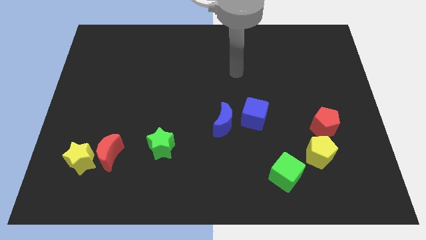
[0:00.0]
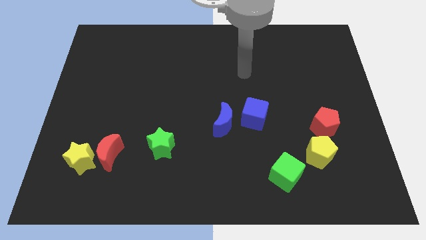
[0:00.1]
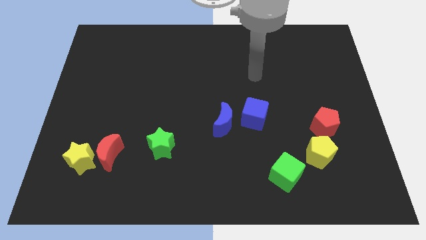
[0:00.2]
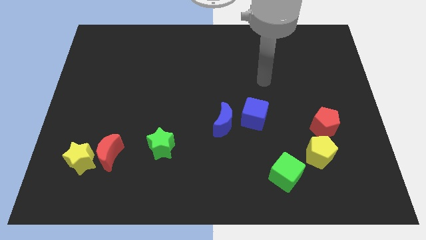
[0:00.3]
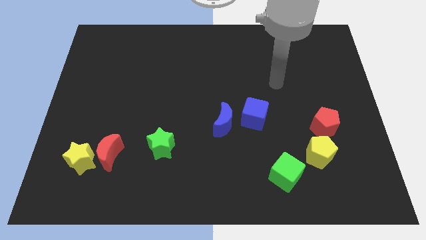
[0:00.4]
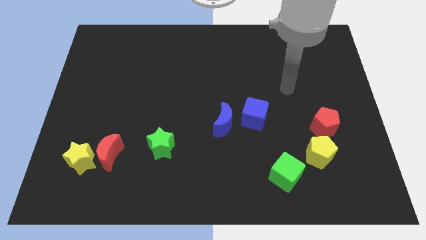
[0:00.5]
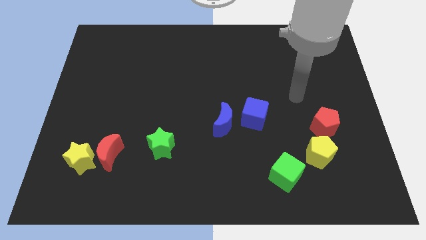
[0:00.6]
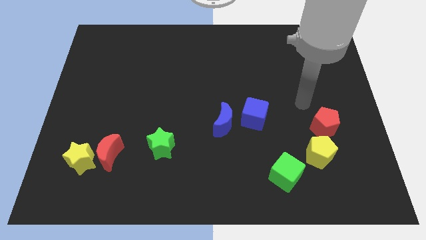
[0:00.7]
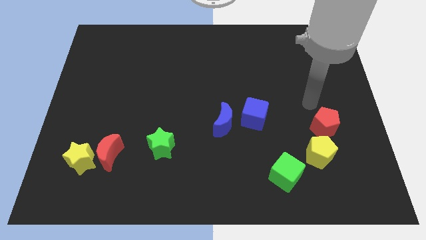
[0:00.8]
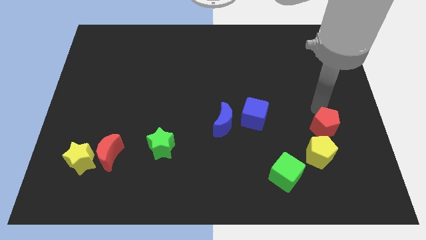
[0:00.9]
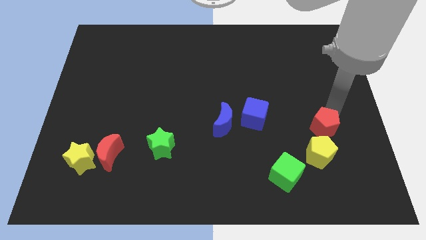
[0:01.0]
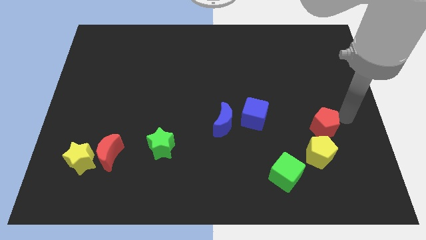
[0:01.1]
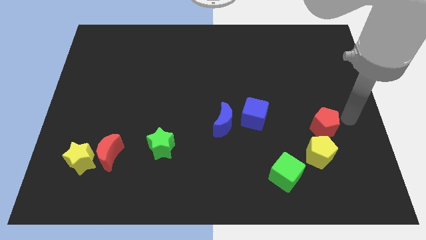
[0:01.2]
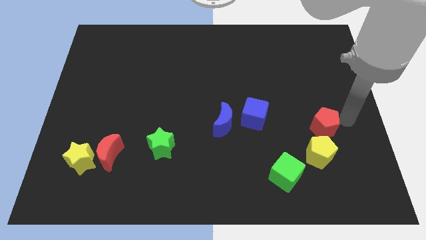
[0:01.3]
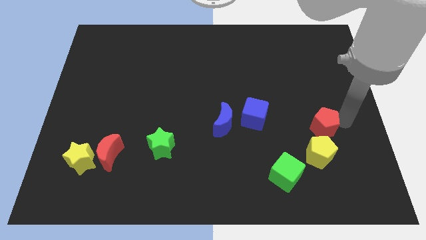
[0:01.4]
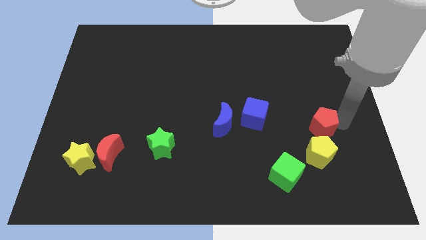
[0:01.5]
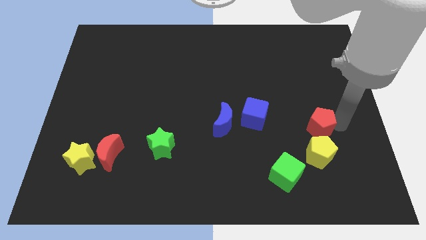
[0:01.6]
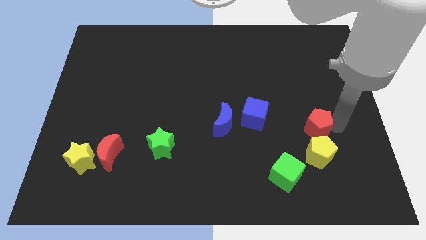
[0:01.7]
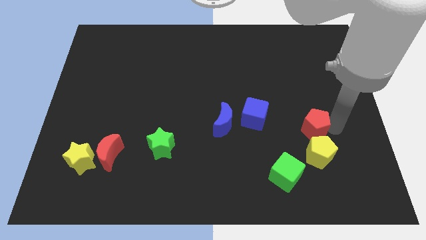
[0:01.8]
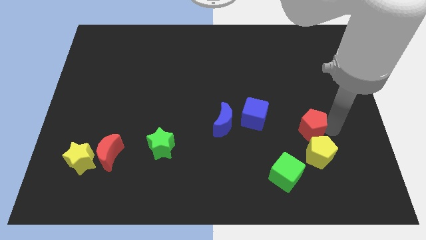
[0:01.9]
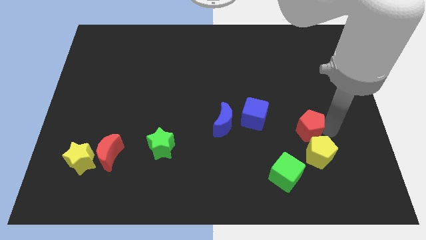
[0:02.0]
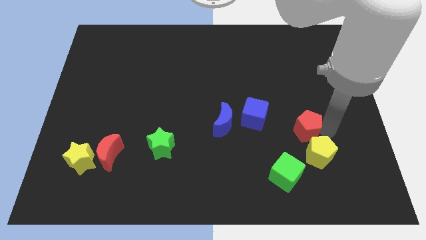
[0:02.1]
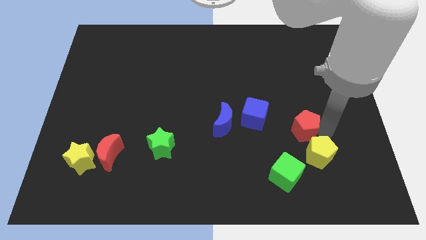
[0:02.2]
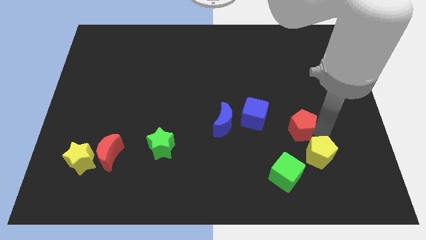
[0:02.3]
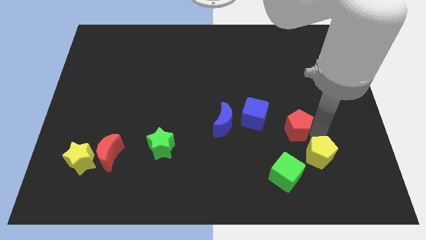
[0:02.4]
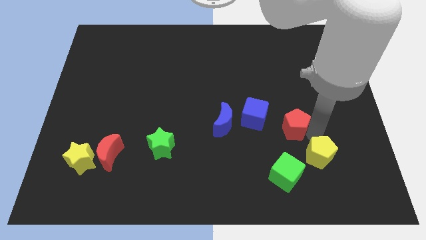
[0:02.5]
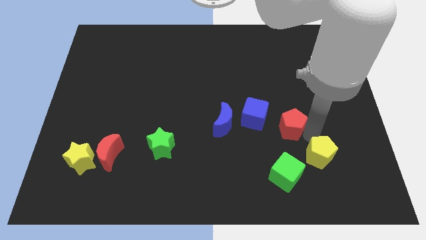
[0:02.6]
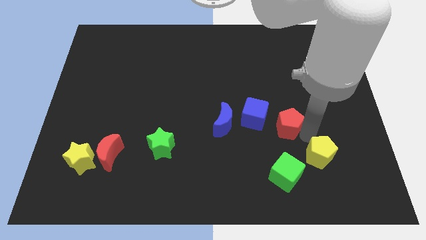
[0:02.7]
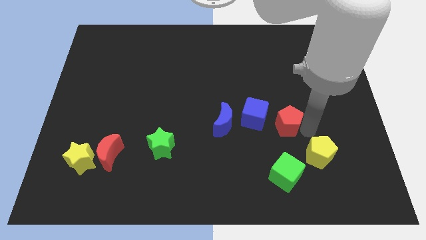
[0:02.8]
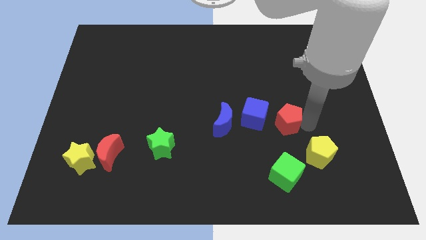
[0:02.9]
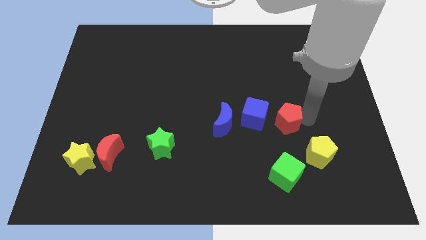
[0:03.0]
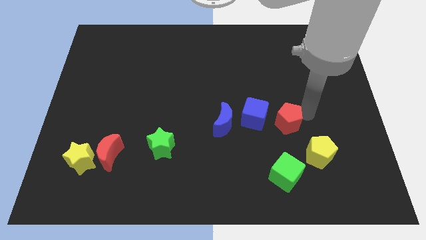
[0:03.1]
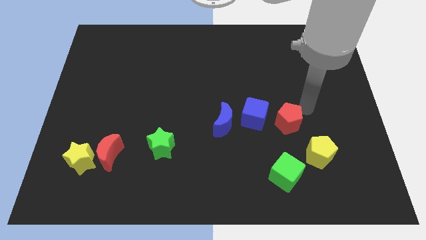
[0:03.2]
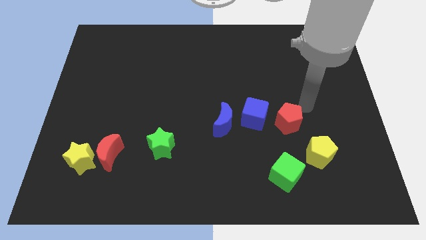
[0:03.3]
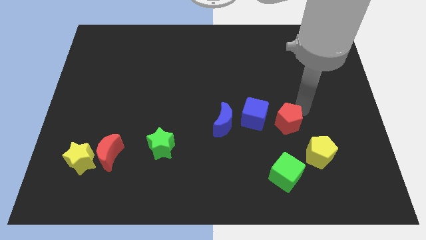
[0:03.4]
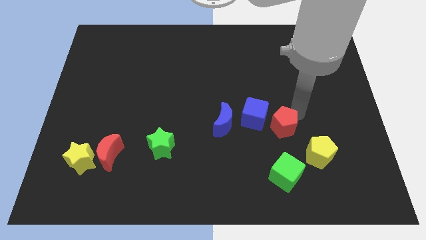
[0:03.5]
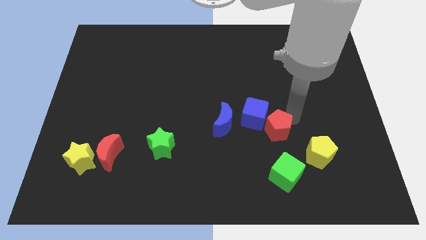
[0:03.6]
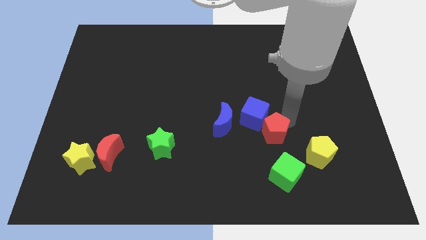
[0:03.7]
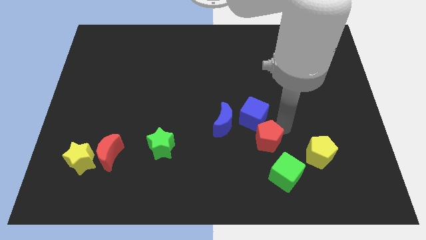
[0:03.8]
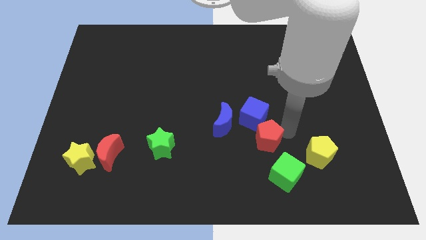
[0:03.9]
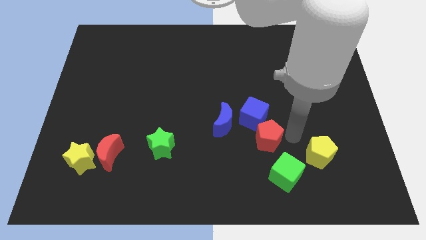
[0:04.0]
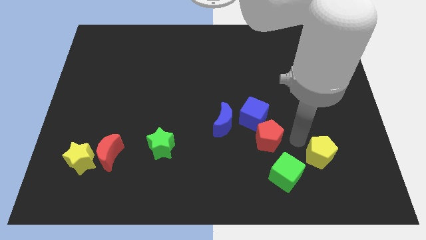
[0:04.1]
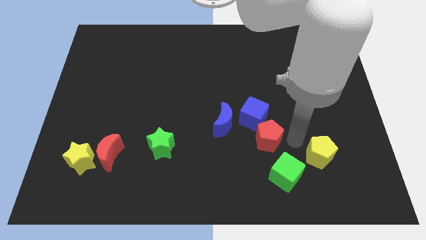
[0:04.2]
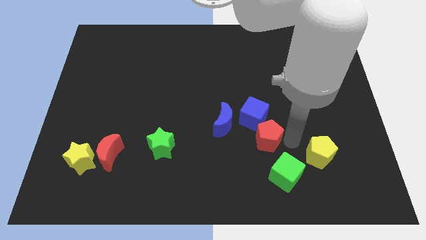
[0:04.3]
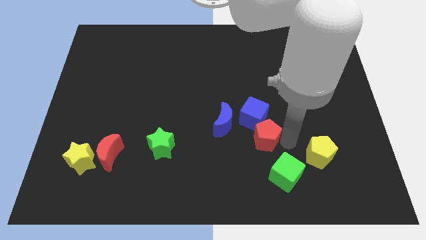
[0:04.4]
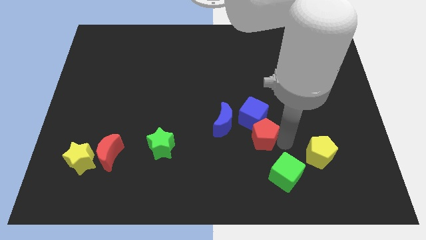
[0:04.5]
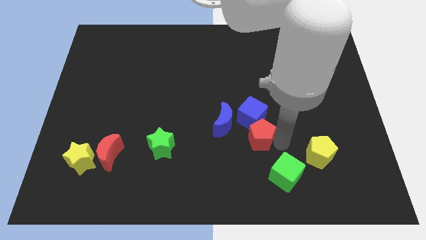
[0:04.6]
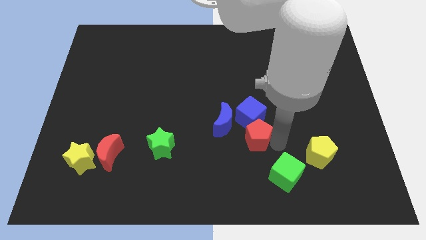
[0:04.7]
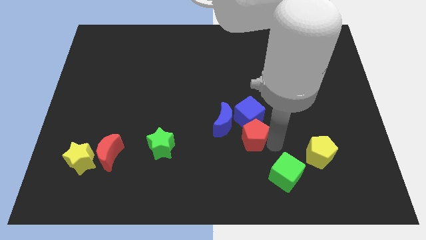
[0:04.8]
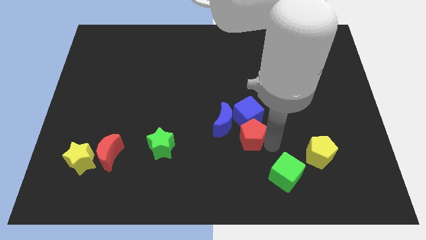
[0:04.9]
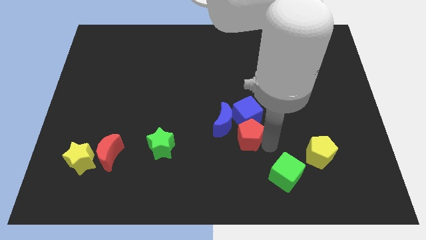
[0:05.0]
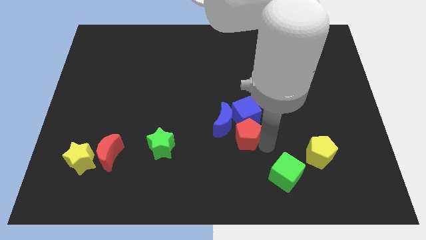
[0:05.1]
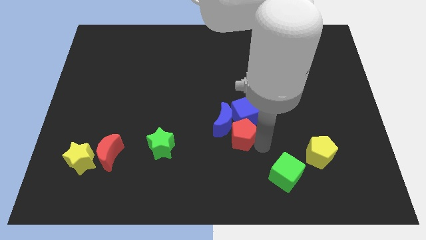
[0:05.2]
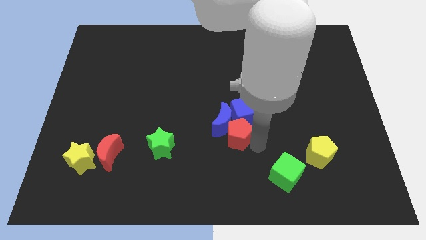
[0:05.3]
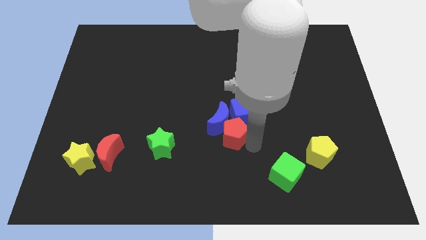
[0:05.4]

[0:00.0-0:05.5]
slide the red pentagon to the left

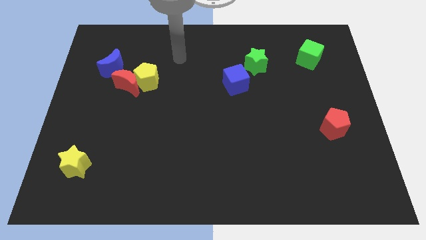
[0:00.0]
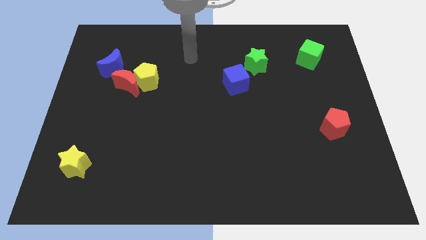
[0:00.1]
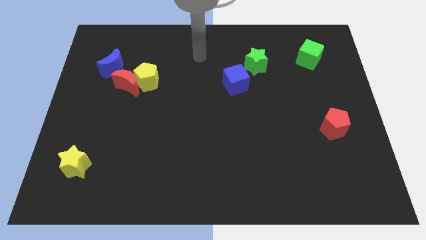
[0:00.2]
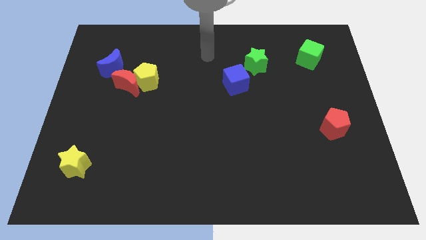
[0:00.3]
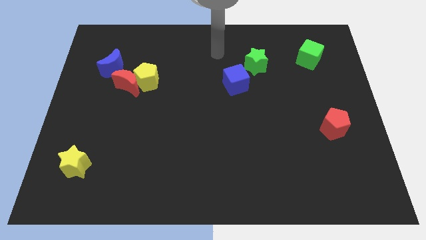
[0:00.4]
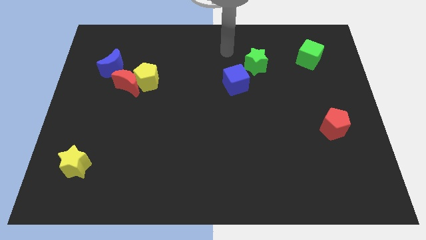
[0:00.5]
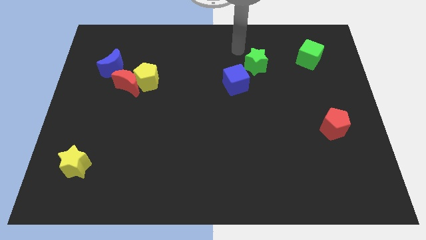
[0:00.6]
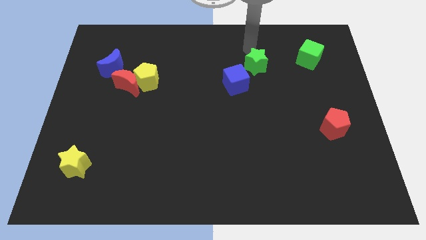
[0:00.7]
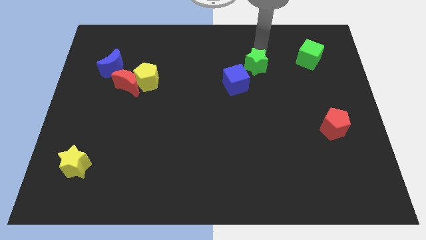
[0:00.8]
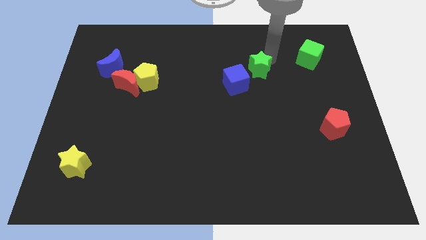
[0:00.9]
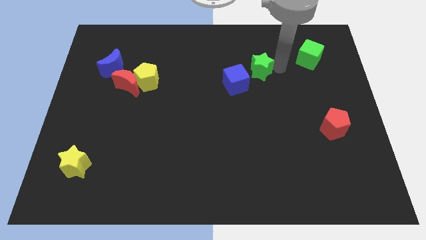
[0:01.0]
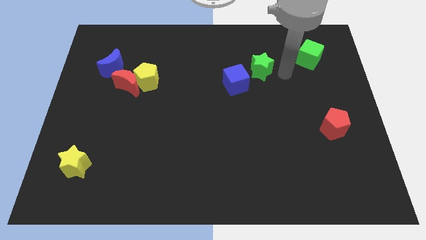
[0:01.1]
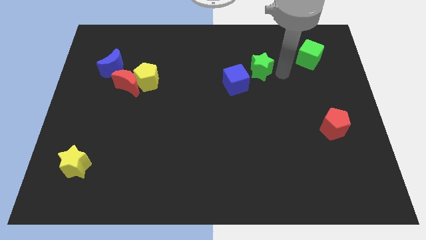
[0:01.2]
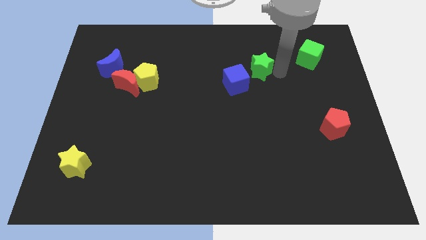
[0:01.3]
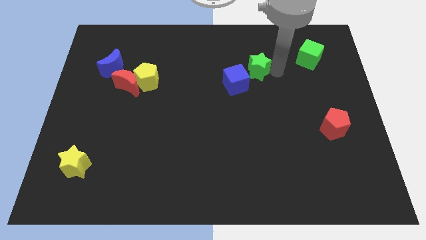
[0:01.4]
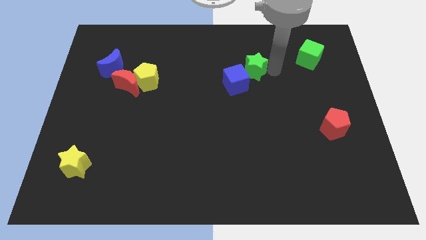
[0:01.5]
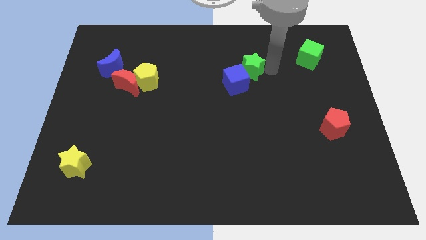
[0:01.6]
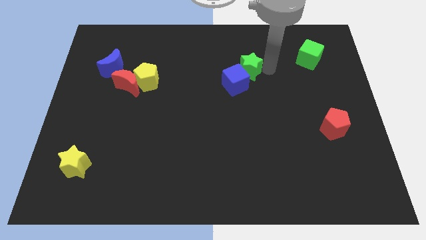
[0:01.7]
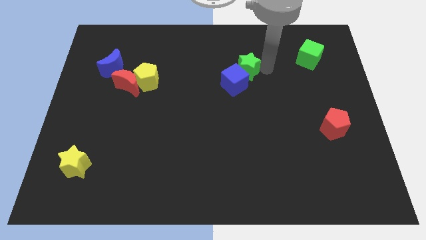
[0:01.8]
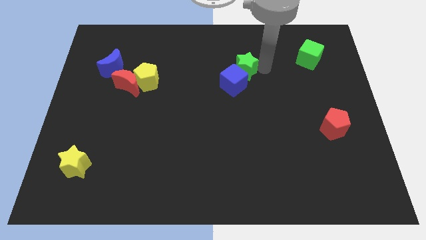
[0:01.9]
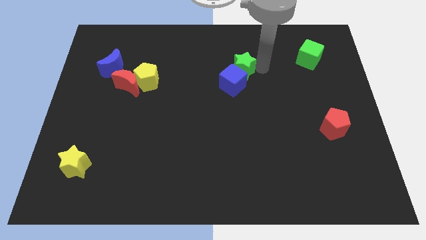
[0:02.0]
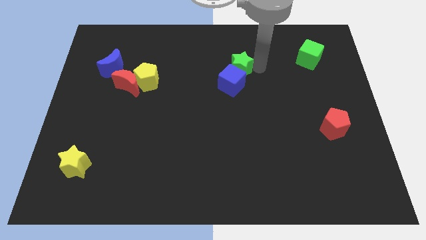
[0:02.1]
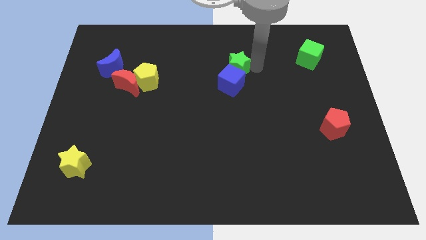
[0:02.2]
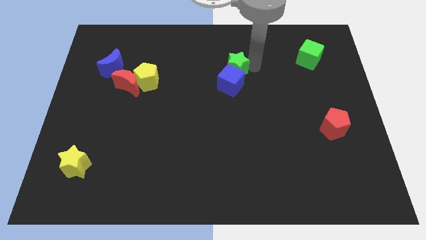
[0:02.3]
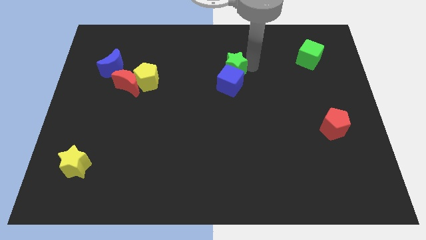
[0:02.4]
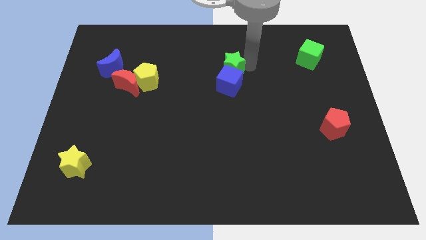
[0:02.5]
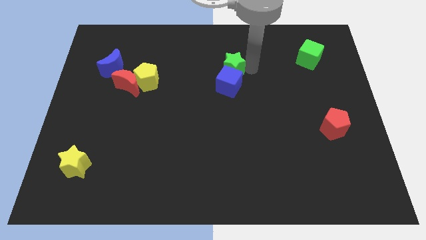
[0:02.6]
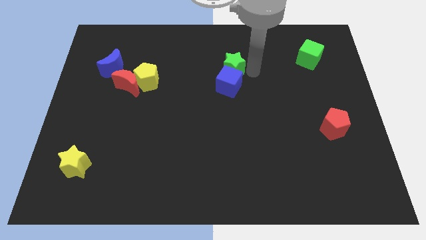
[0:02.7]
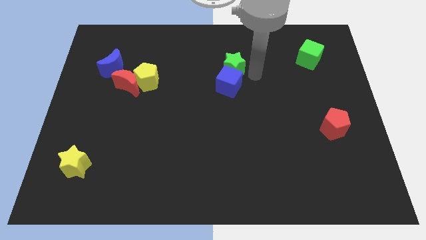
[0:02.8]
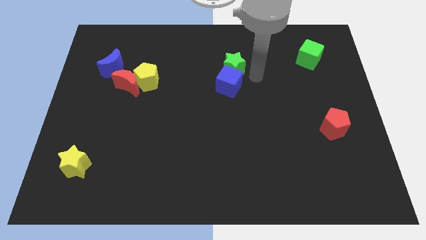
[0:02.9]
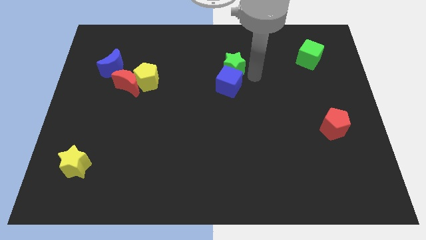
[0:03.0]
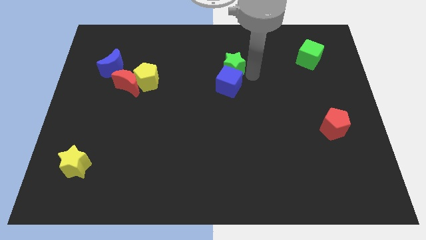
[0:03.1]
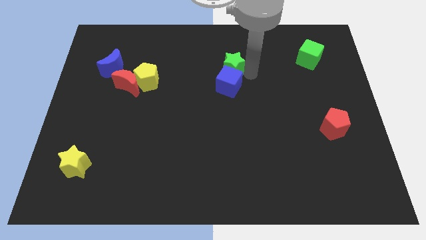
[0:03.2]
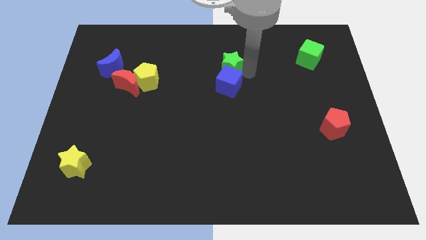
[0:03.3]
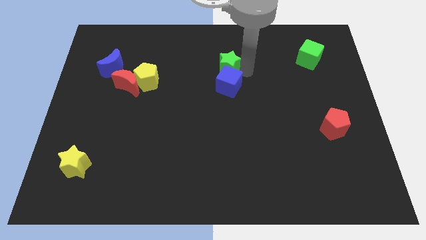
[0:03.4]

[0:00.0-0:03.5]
push the green star left a little bit
